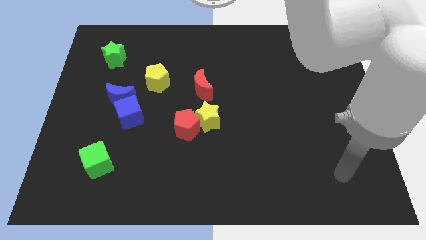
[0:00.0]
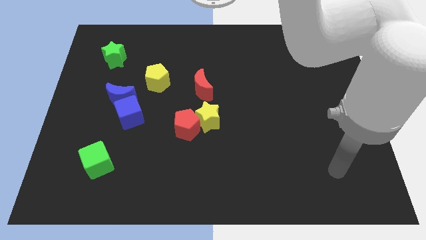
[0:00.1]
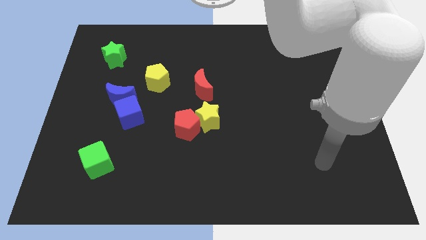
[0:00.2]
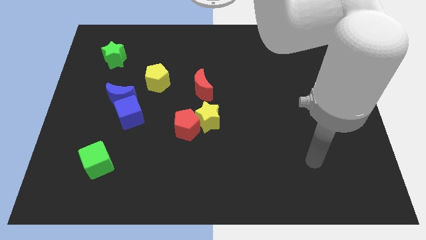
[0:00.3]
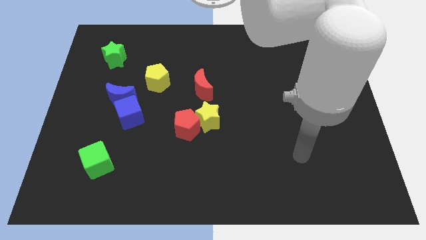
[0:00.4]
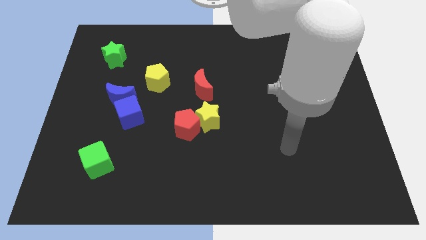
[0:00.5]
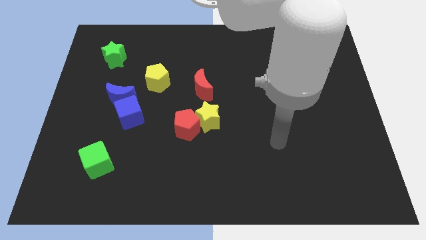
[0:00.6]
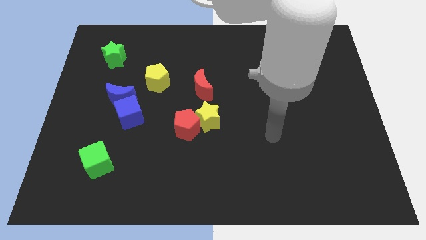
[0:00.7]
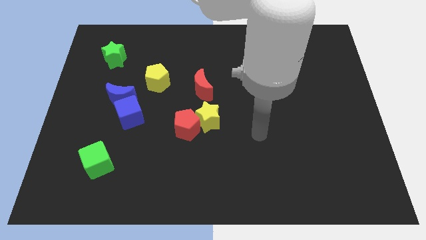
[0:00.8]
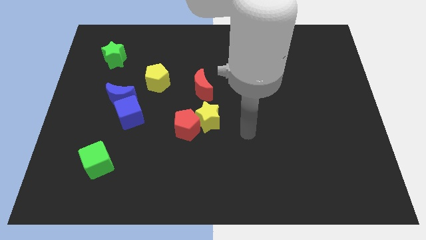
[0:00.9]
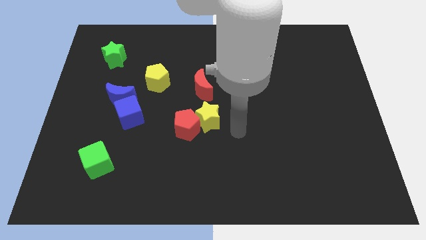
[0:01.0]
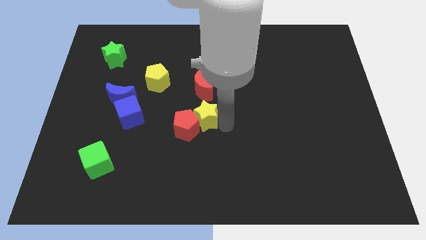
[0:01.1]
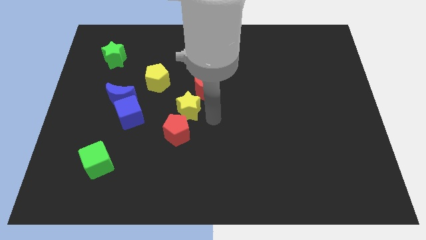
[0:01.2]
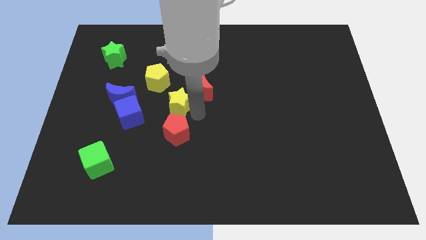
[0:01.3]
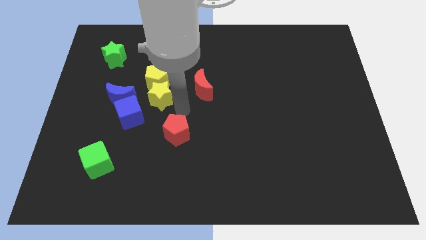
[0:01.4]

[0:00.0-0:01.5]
separate the red pentagon from the yellow star

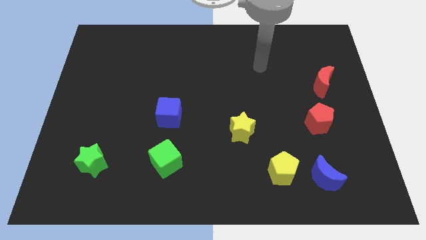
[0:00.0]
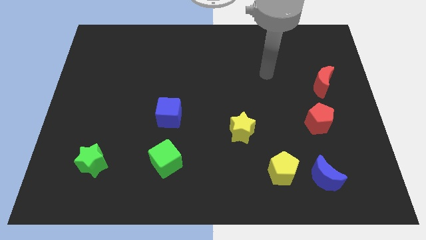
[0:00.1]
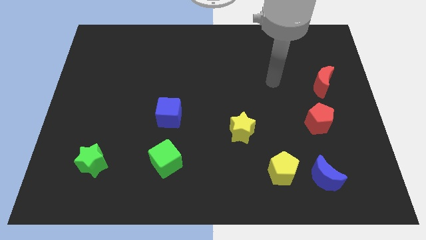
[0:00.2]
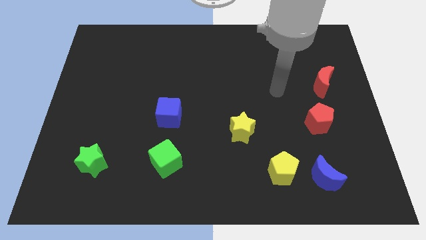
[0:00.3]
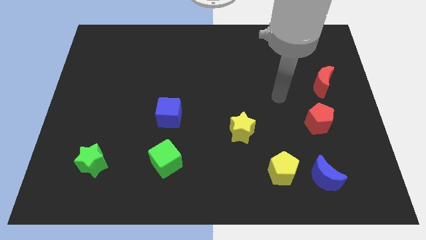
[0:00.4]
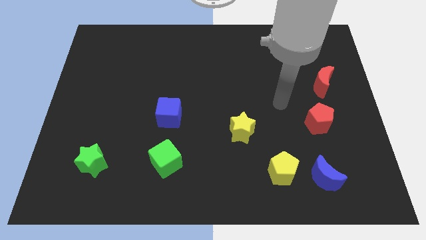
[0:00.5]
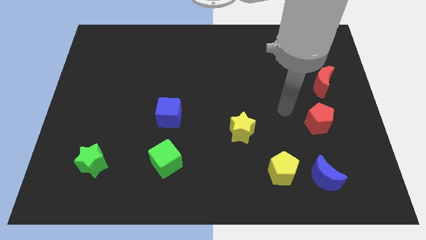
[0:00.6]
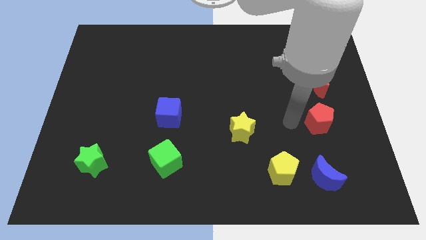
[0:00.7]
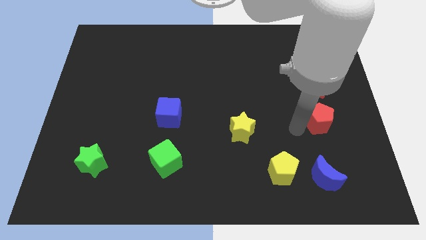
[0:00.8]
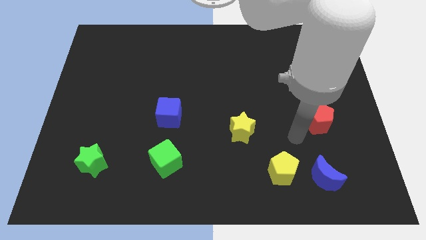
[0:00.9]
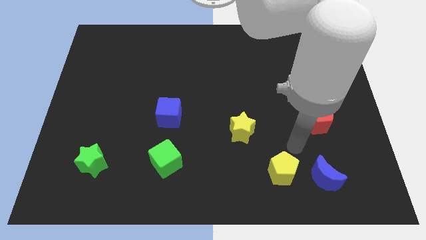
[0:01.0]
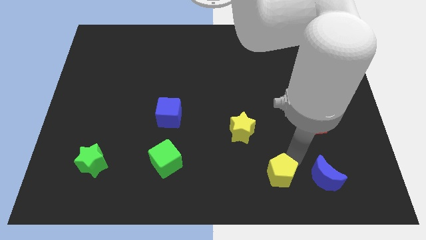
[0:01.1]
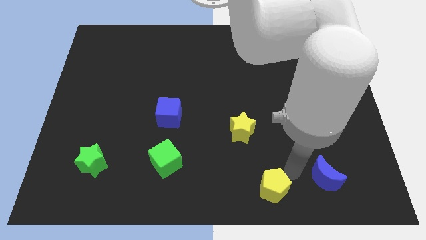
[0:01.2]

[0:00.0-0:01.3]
pull the blue moon apart from the yellow pentagon

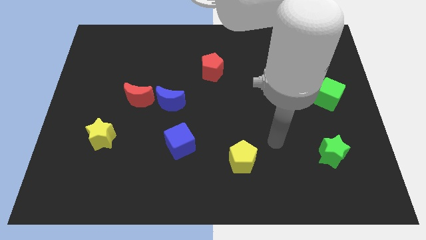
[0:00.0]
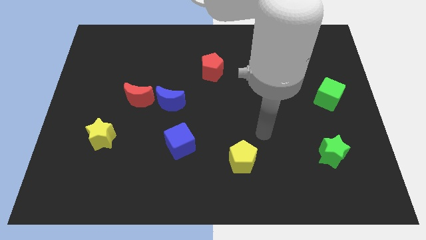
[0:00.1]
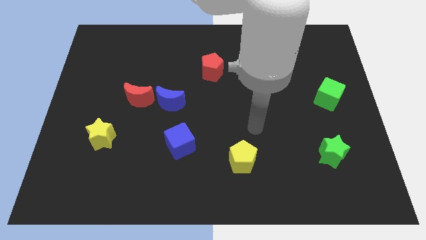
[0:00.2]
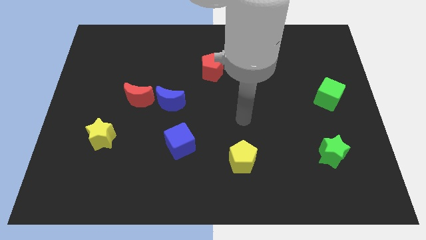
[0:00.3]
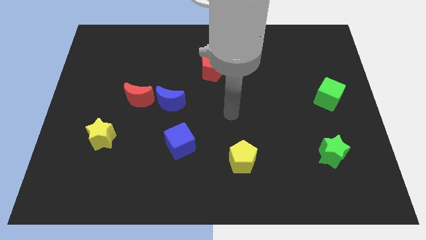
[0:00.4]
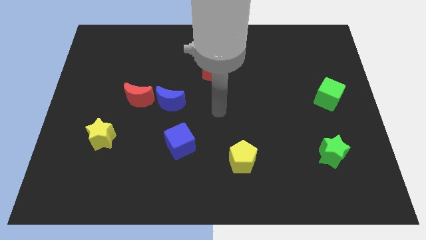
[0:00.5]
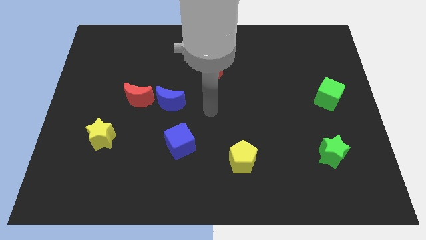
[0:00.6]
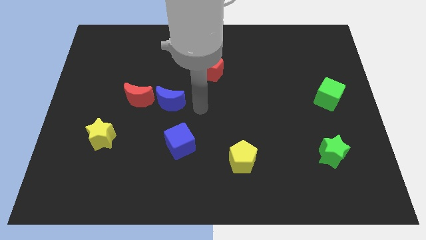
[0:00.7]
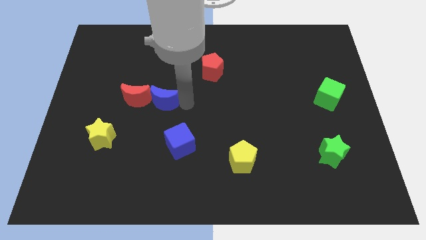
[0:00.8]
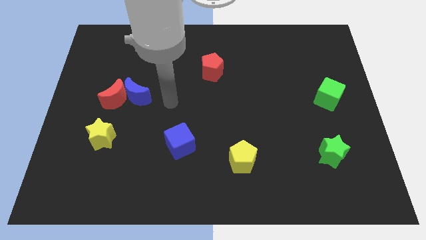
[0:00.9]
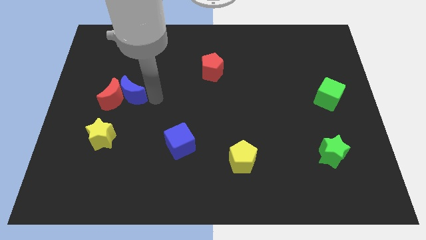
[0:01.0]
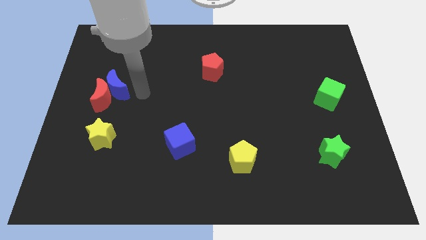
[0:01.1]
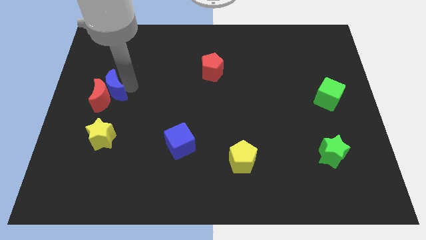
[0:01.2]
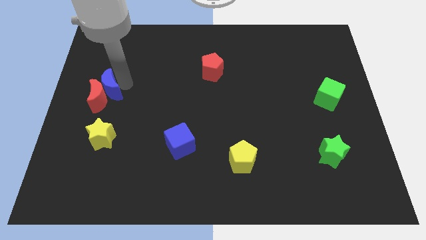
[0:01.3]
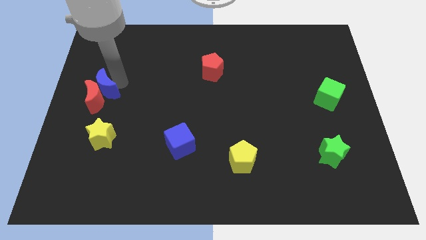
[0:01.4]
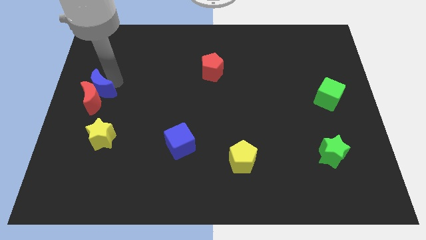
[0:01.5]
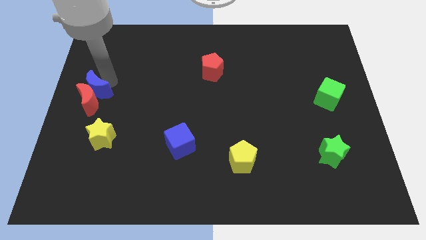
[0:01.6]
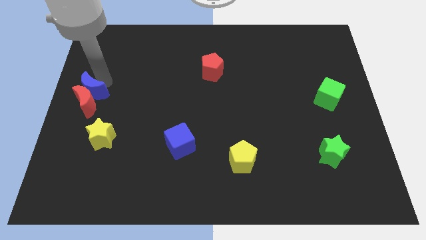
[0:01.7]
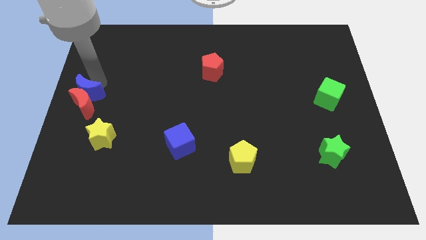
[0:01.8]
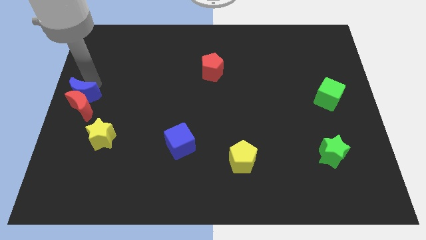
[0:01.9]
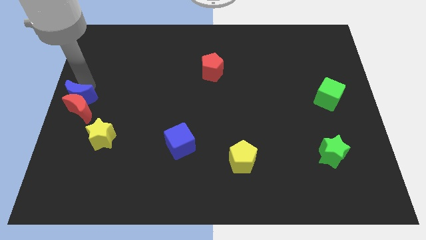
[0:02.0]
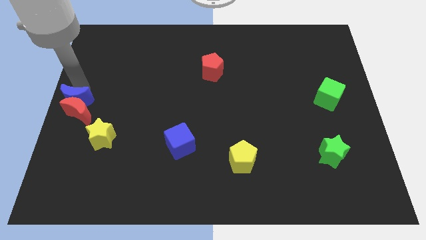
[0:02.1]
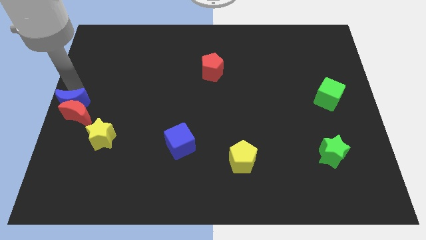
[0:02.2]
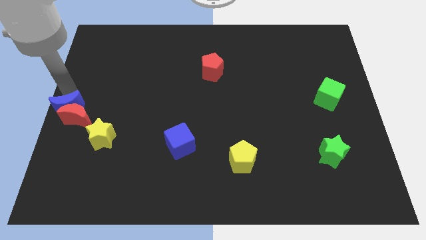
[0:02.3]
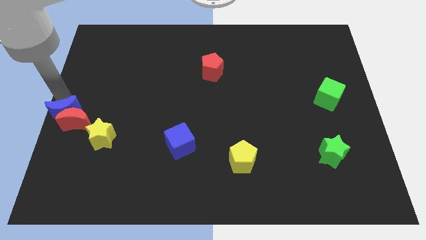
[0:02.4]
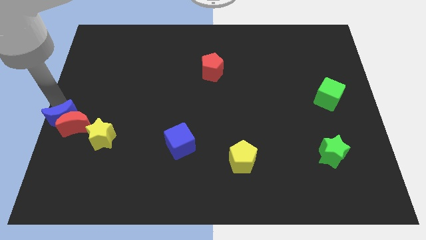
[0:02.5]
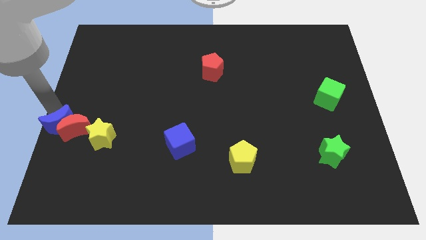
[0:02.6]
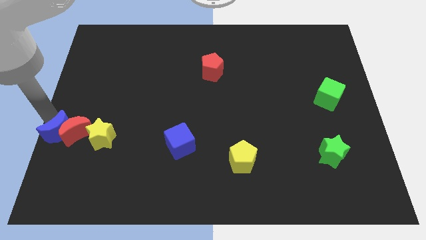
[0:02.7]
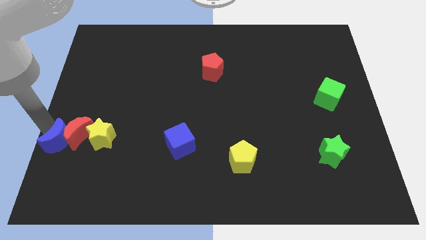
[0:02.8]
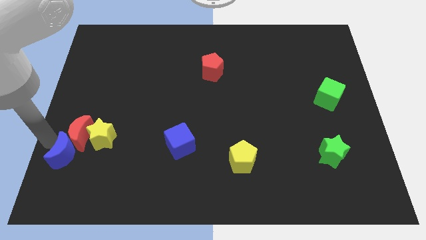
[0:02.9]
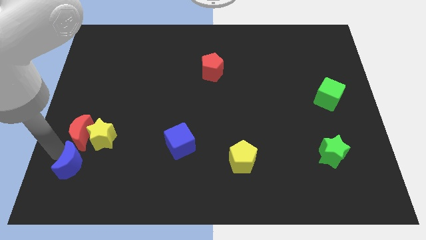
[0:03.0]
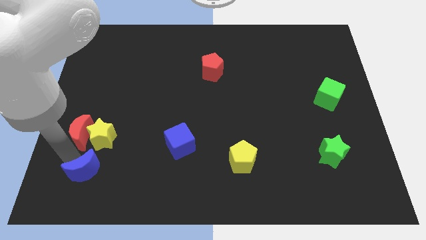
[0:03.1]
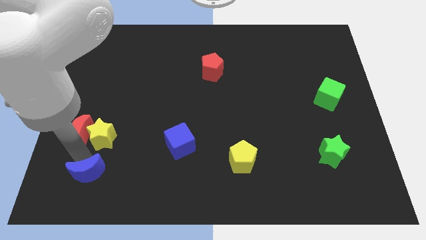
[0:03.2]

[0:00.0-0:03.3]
pull the red moon apart from the blue moon

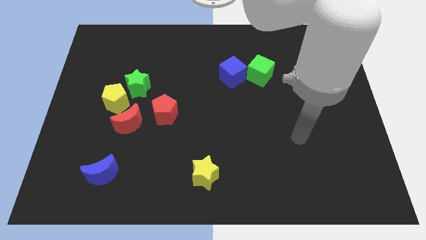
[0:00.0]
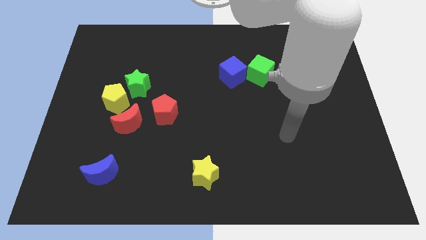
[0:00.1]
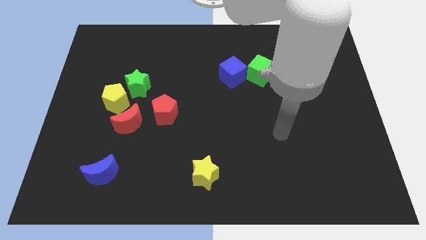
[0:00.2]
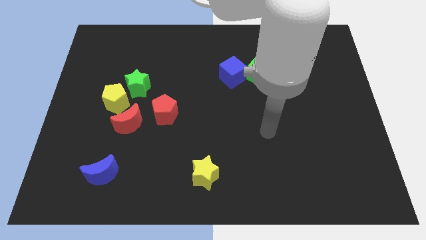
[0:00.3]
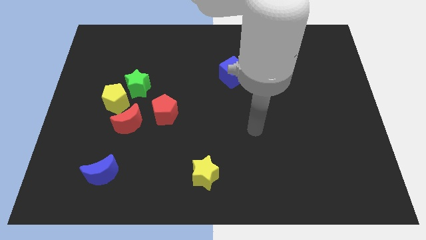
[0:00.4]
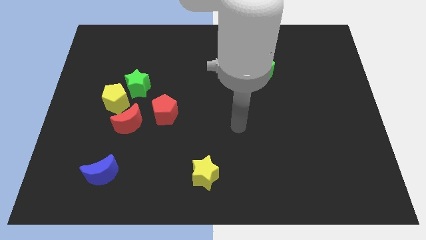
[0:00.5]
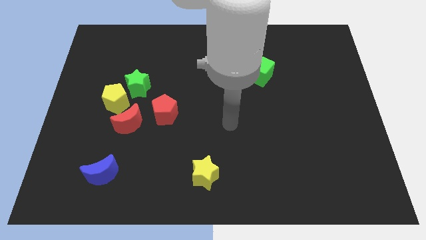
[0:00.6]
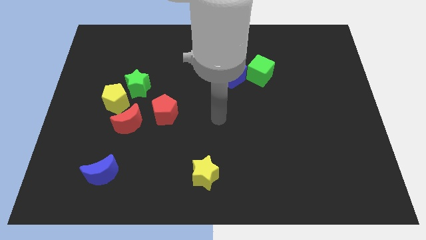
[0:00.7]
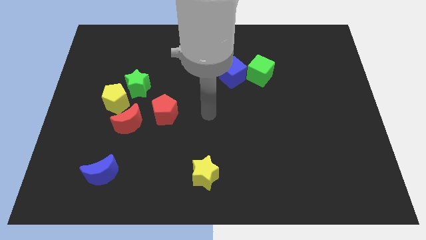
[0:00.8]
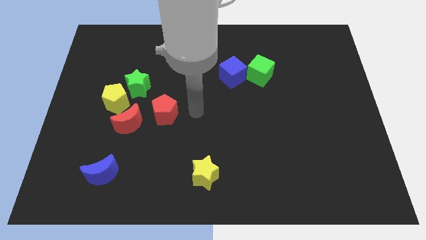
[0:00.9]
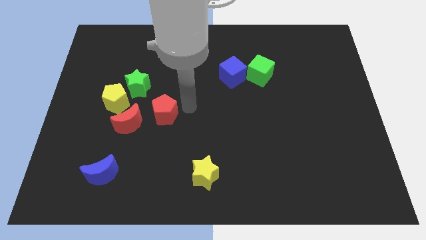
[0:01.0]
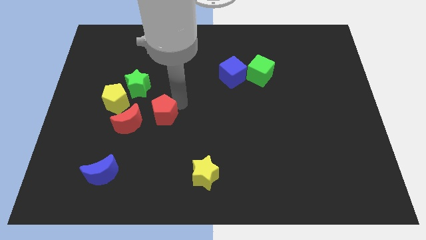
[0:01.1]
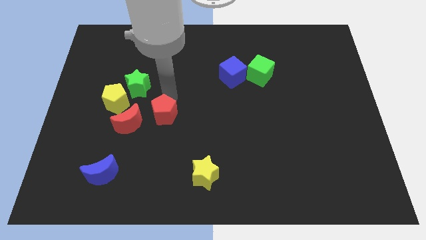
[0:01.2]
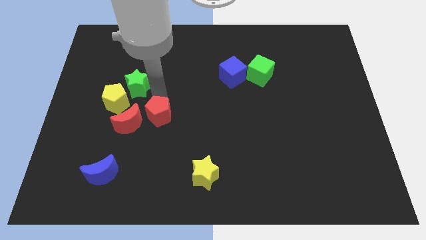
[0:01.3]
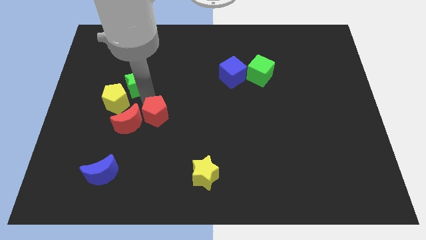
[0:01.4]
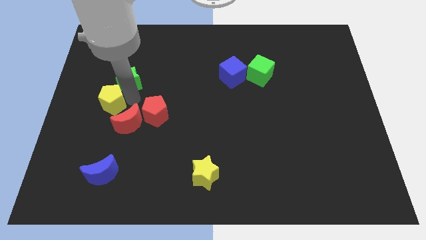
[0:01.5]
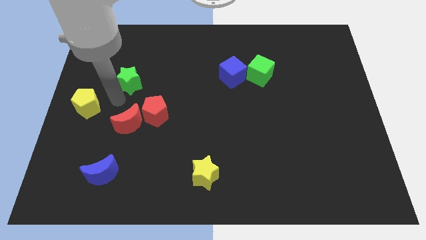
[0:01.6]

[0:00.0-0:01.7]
pull the green star apart from the yellow pentagon

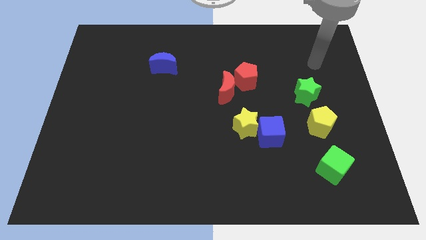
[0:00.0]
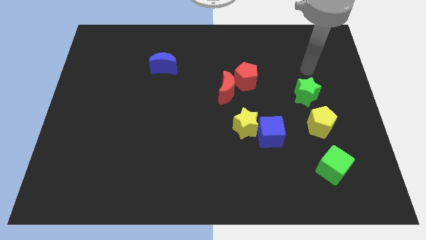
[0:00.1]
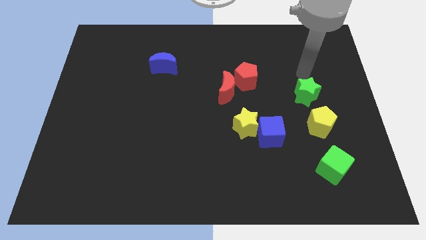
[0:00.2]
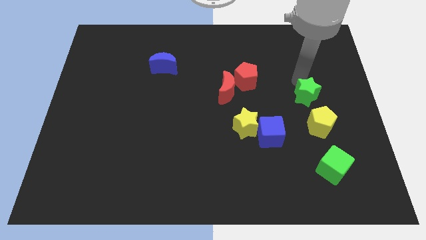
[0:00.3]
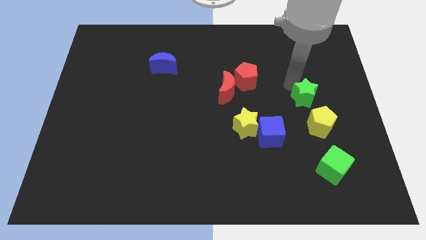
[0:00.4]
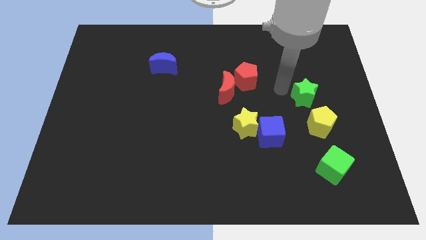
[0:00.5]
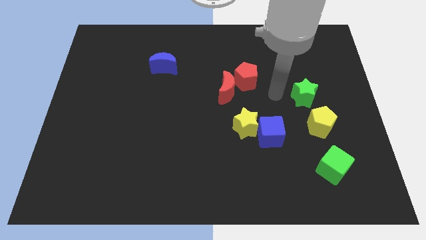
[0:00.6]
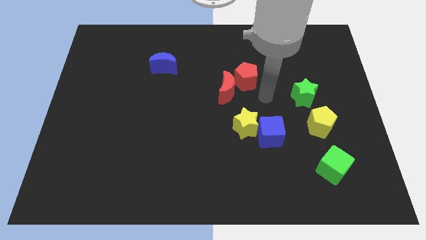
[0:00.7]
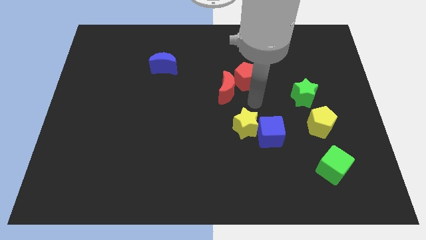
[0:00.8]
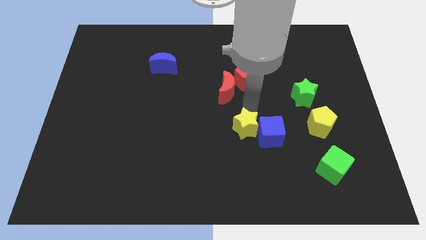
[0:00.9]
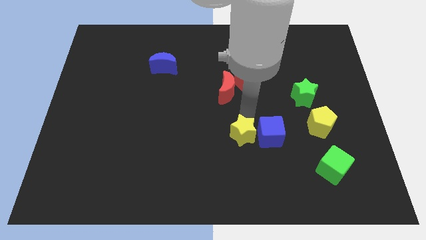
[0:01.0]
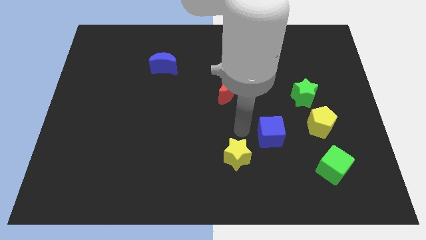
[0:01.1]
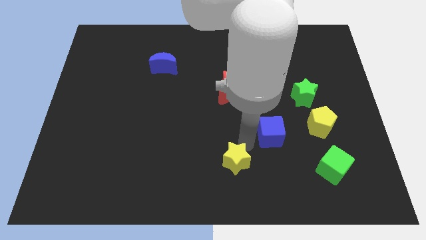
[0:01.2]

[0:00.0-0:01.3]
move the blue cube away from the yellow star

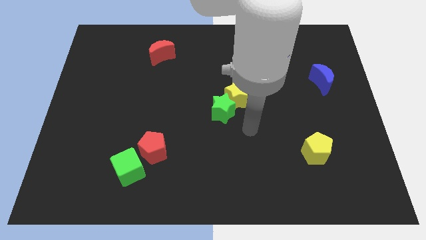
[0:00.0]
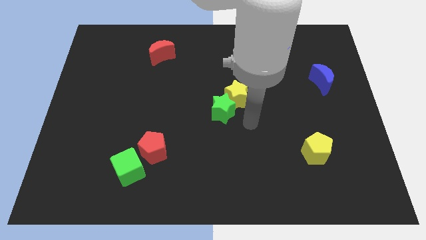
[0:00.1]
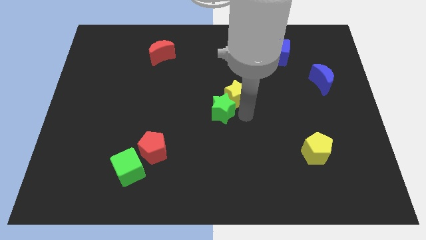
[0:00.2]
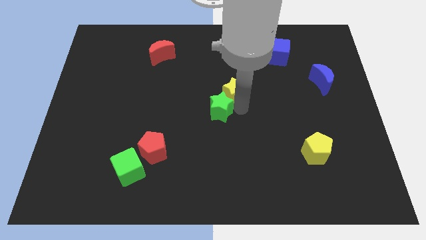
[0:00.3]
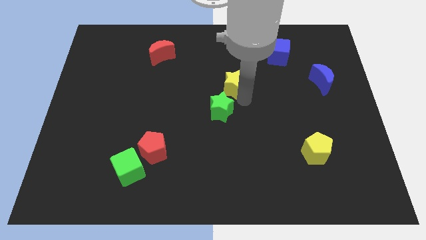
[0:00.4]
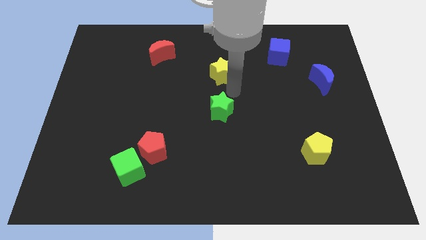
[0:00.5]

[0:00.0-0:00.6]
separate the green star from the yellow star
